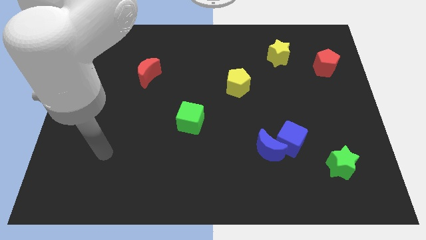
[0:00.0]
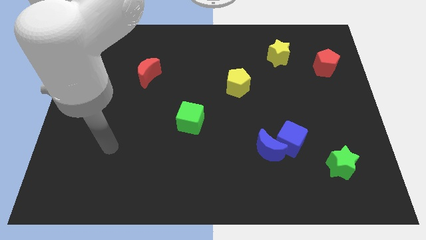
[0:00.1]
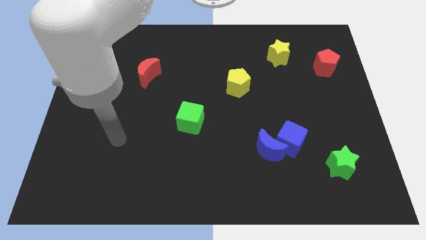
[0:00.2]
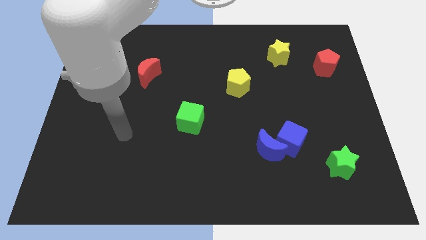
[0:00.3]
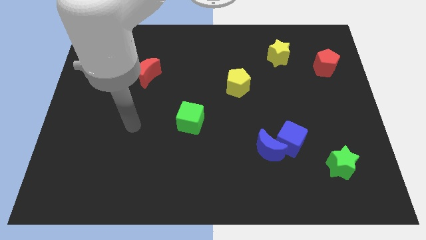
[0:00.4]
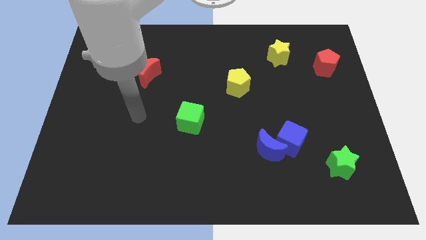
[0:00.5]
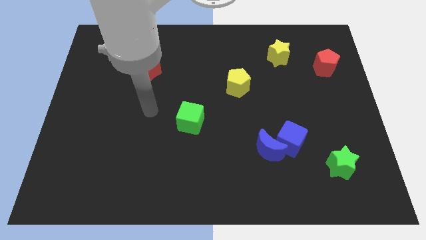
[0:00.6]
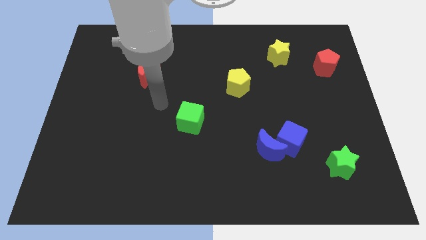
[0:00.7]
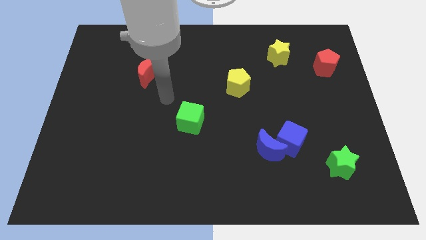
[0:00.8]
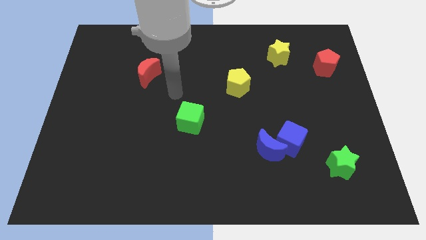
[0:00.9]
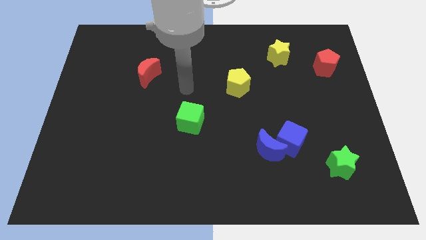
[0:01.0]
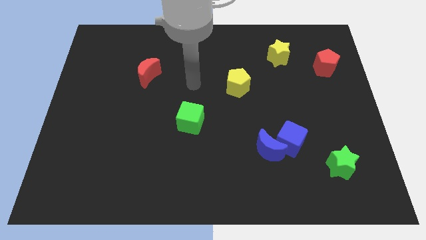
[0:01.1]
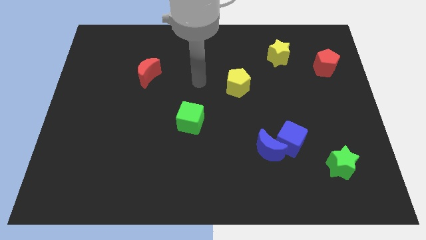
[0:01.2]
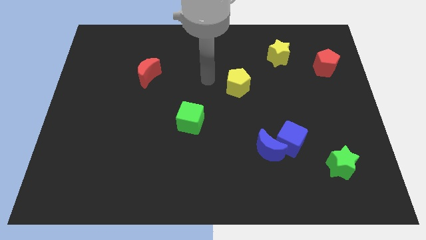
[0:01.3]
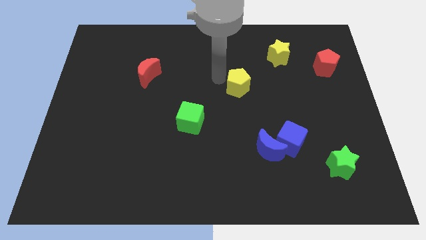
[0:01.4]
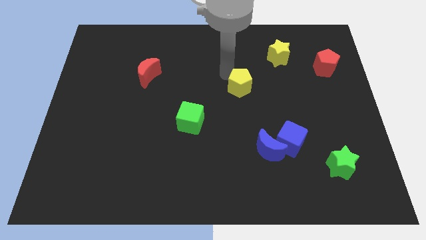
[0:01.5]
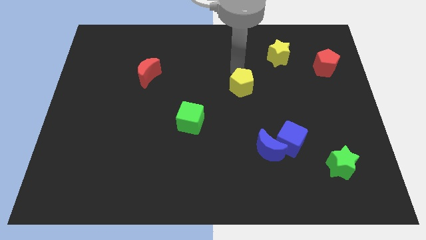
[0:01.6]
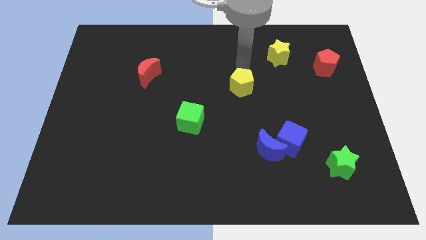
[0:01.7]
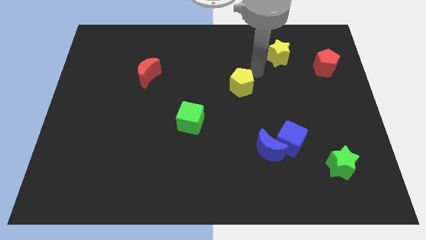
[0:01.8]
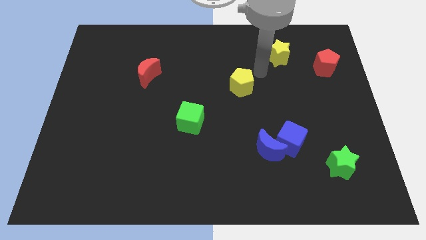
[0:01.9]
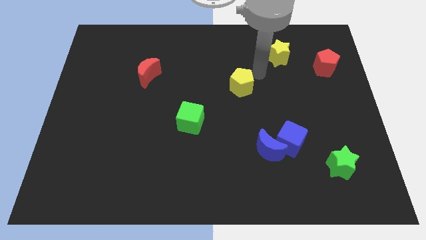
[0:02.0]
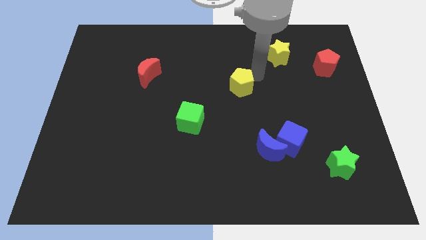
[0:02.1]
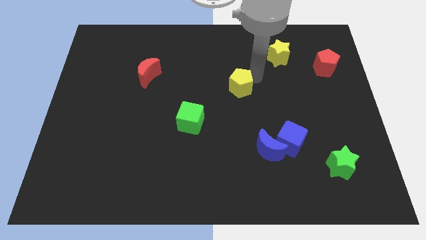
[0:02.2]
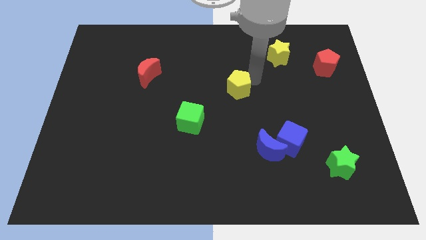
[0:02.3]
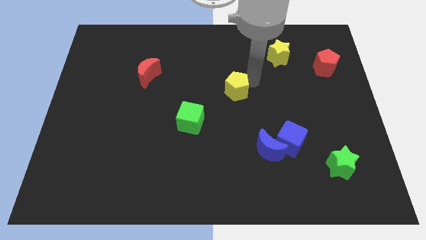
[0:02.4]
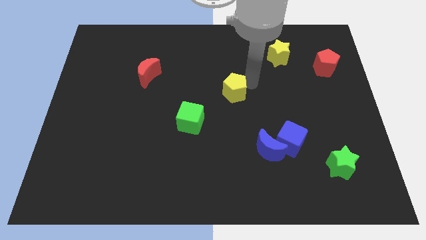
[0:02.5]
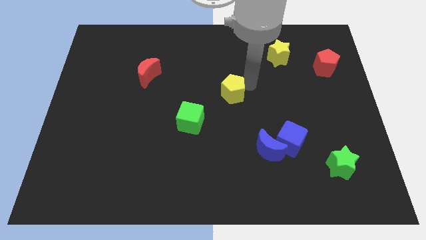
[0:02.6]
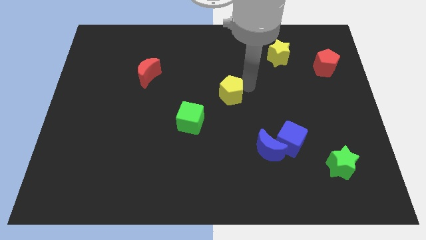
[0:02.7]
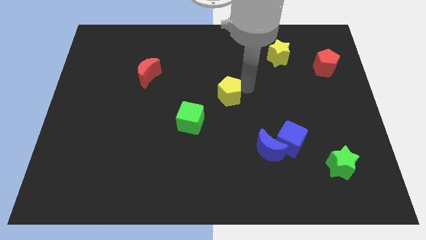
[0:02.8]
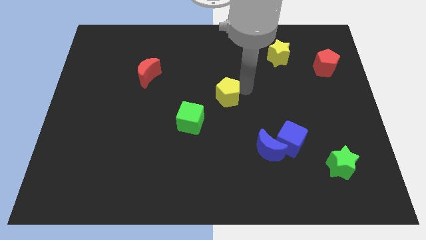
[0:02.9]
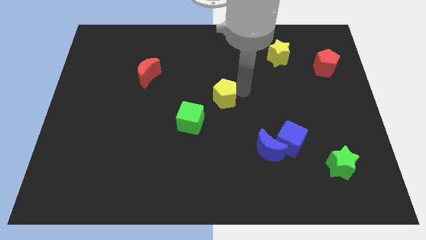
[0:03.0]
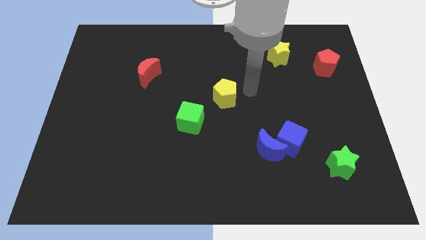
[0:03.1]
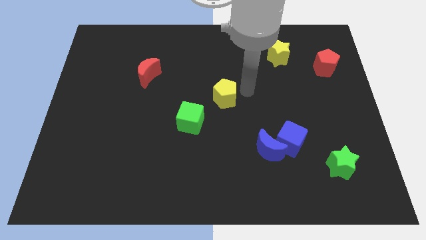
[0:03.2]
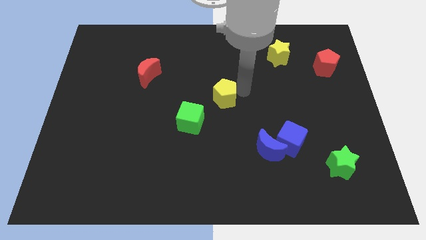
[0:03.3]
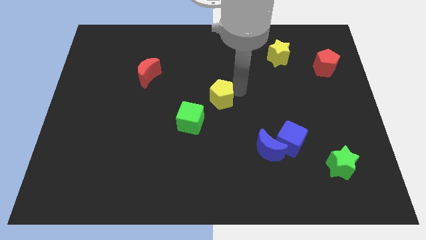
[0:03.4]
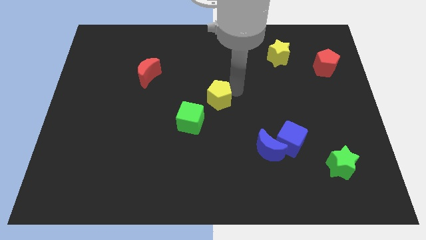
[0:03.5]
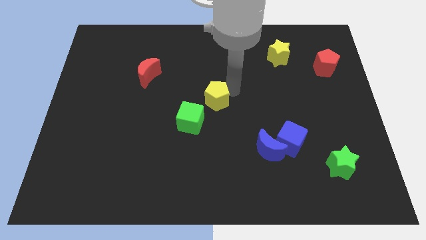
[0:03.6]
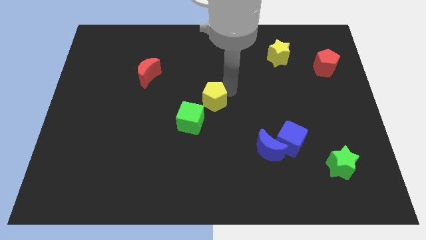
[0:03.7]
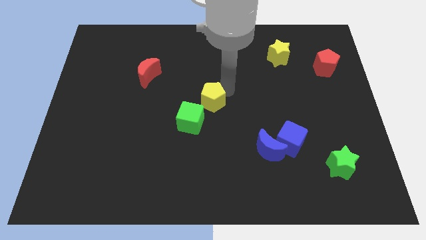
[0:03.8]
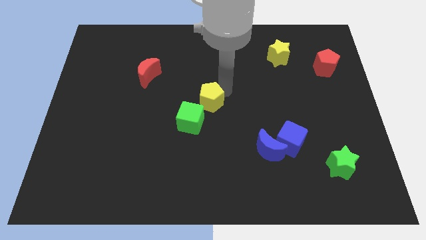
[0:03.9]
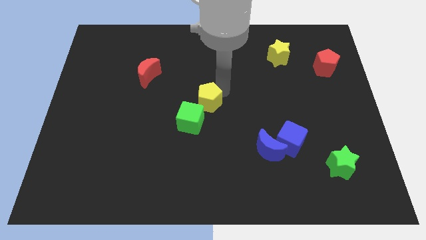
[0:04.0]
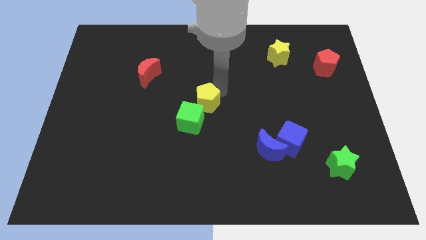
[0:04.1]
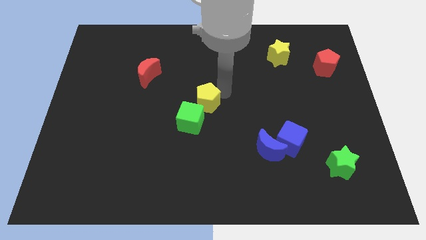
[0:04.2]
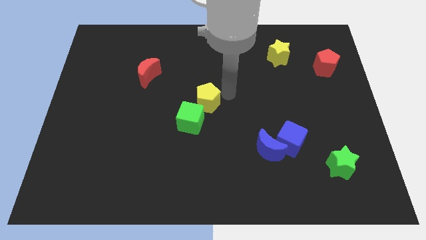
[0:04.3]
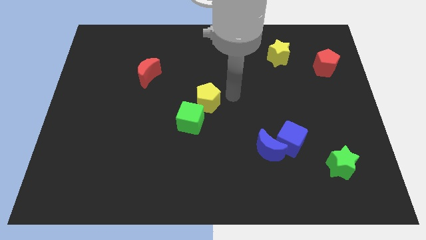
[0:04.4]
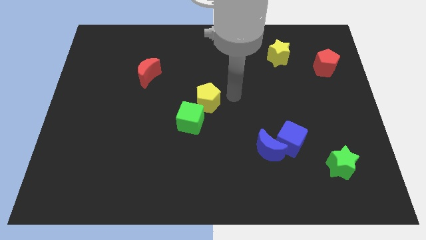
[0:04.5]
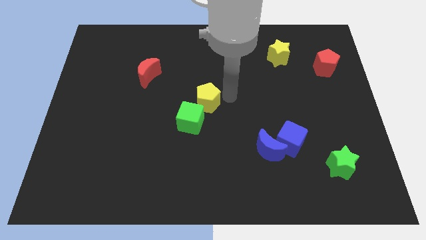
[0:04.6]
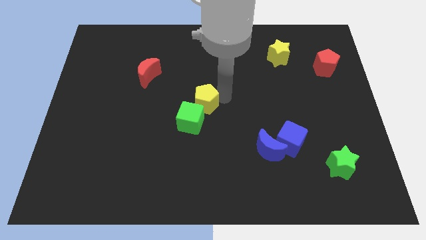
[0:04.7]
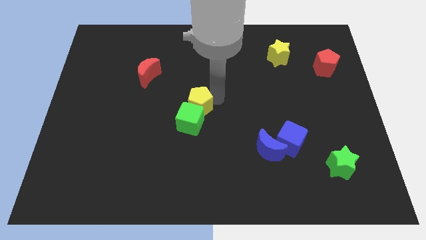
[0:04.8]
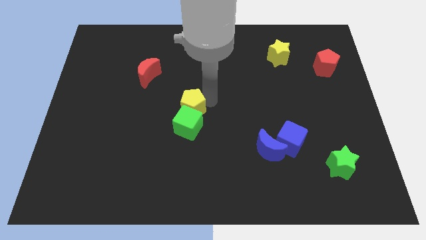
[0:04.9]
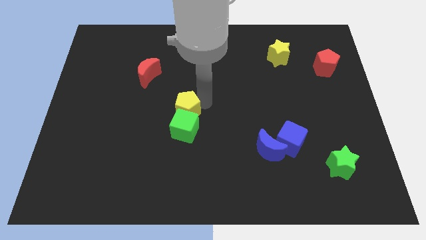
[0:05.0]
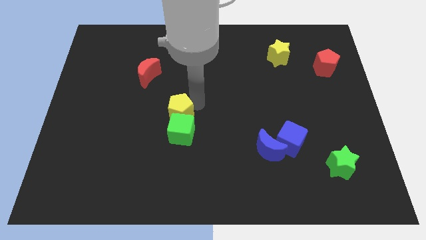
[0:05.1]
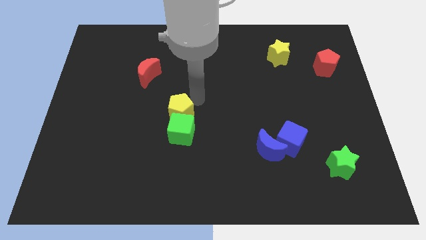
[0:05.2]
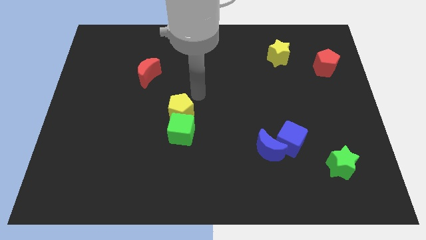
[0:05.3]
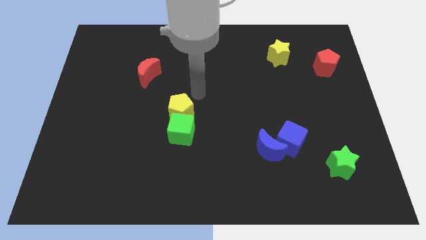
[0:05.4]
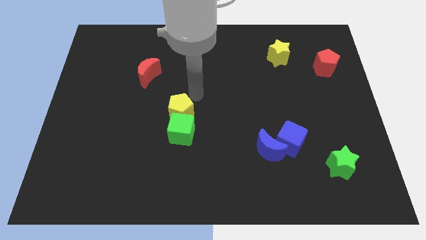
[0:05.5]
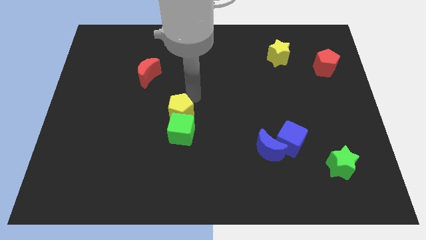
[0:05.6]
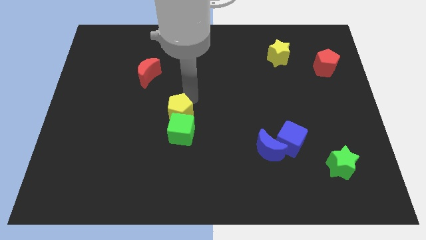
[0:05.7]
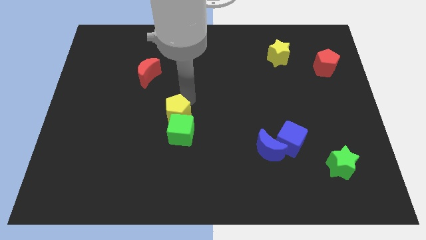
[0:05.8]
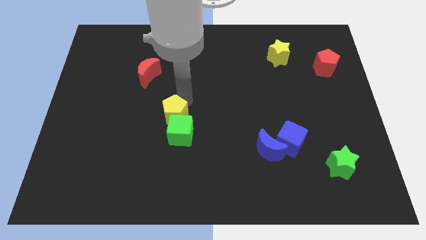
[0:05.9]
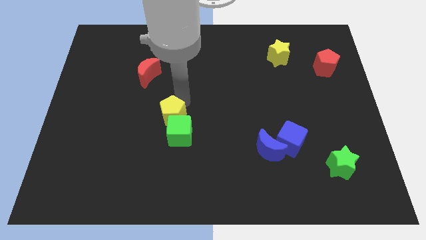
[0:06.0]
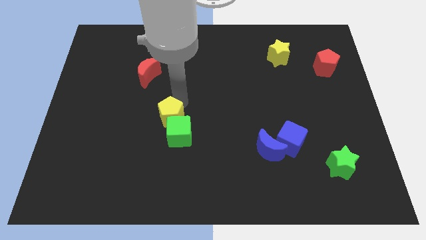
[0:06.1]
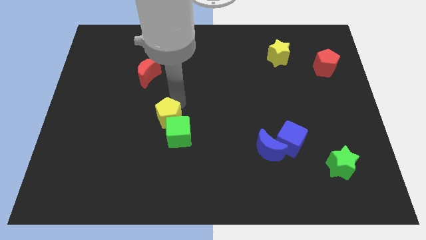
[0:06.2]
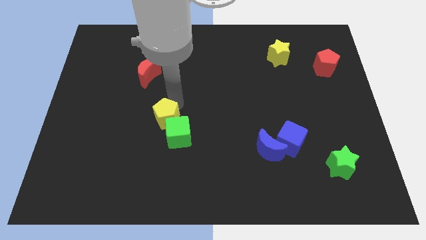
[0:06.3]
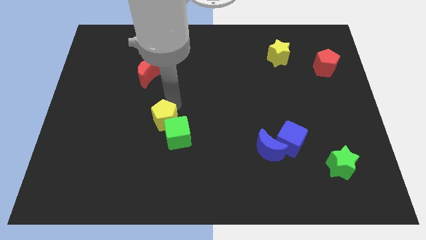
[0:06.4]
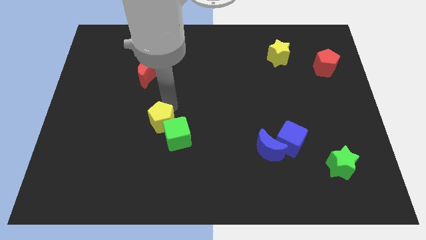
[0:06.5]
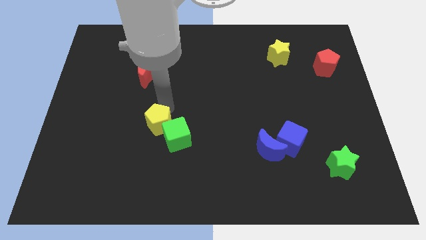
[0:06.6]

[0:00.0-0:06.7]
slide the yellow pentagon downwards and then left

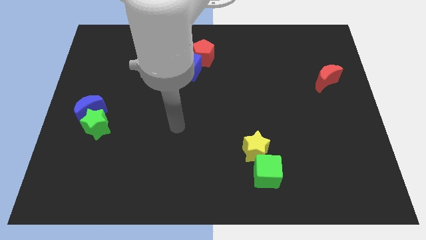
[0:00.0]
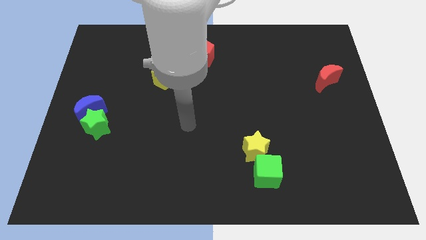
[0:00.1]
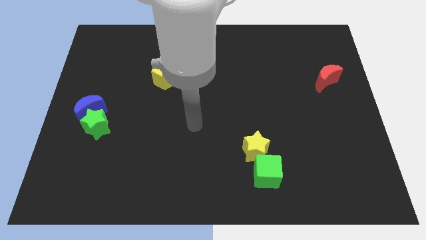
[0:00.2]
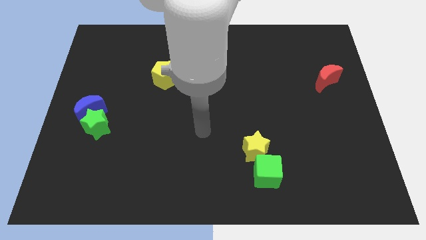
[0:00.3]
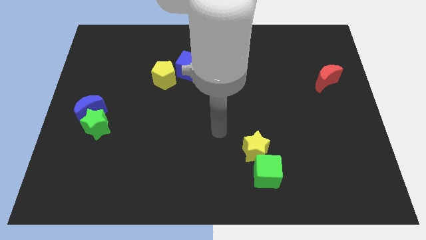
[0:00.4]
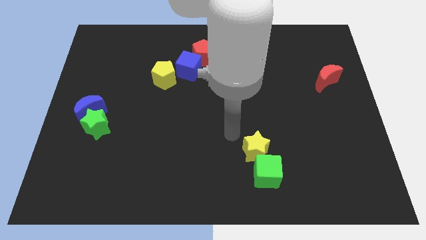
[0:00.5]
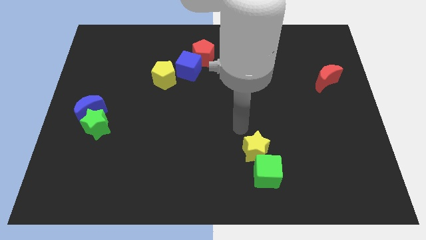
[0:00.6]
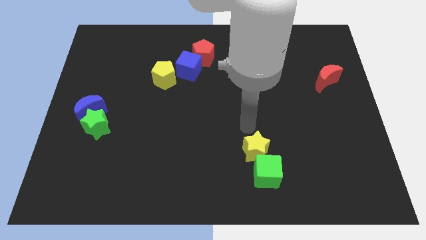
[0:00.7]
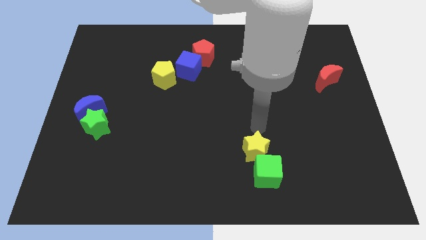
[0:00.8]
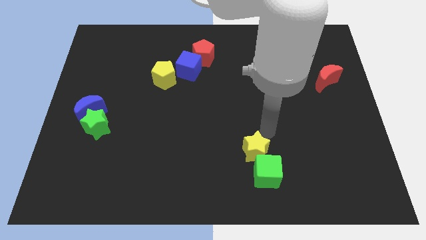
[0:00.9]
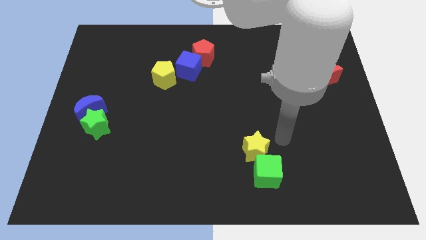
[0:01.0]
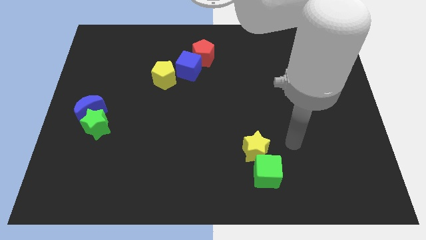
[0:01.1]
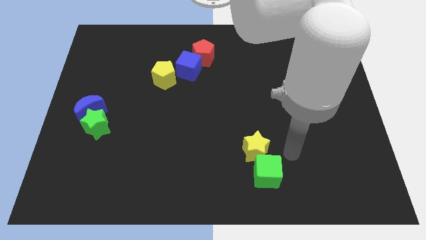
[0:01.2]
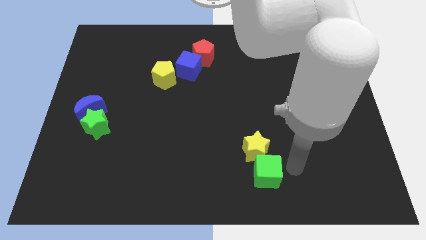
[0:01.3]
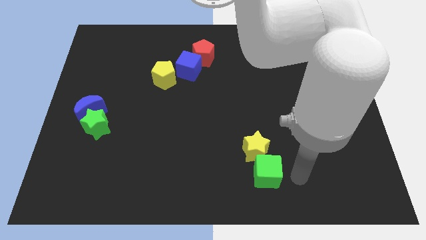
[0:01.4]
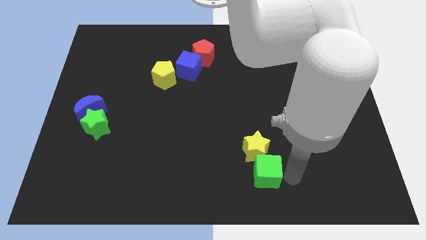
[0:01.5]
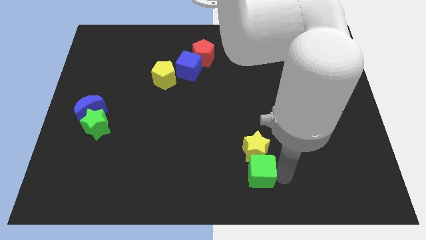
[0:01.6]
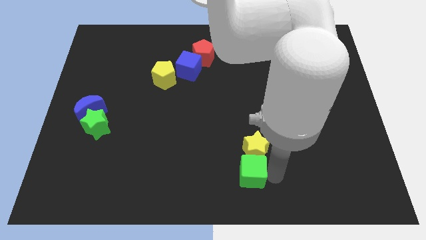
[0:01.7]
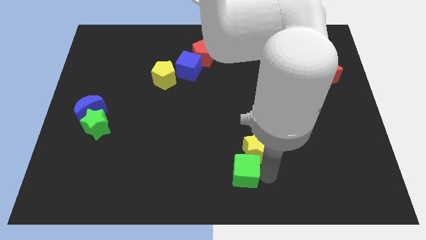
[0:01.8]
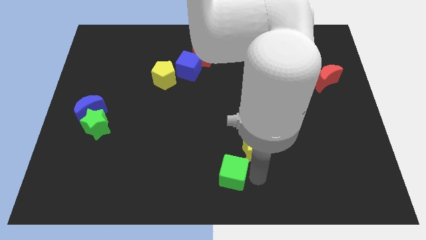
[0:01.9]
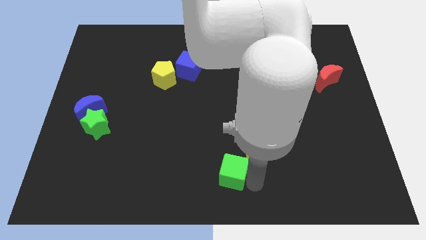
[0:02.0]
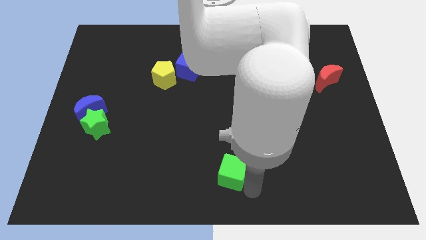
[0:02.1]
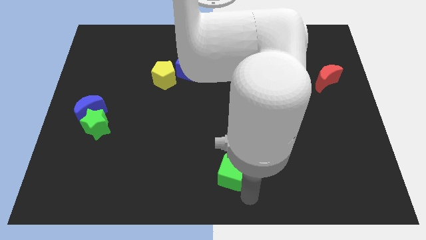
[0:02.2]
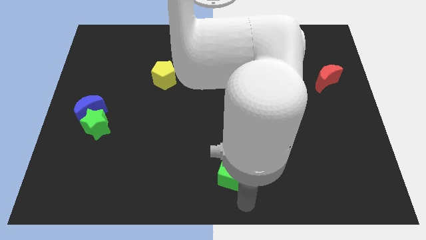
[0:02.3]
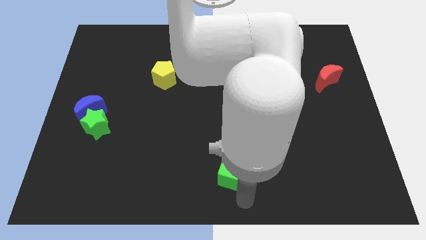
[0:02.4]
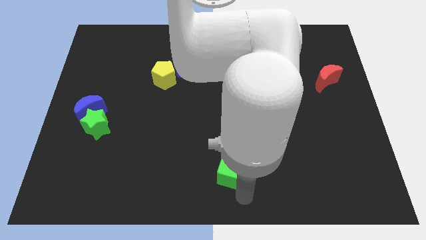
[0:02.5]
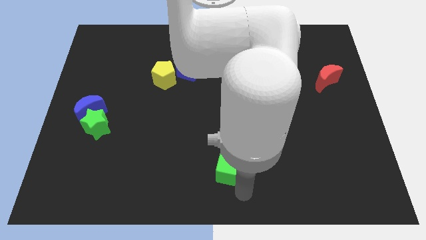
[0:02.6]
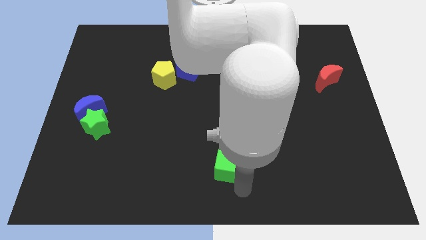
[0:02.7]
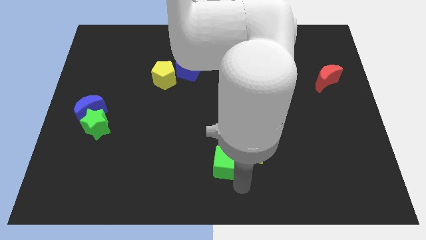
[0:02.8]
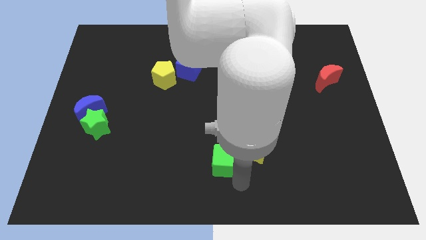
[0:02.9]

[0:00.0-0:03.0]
slightly push the green cube diagonally upwards and left
